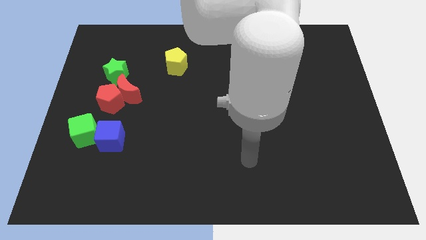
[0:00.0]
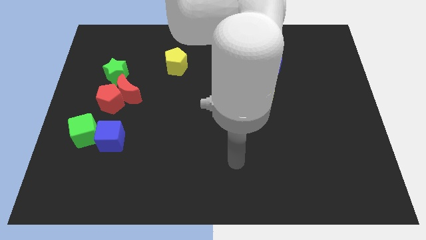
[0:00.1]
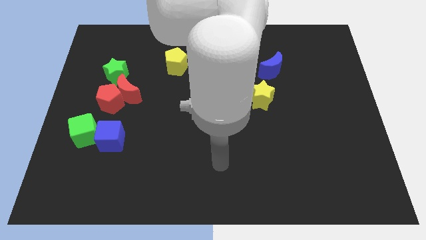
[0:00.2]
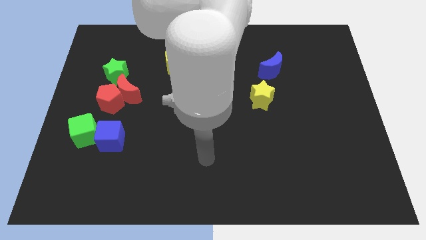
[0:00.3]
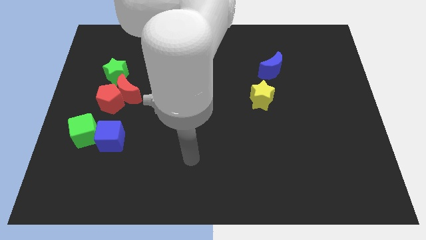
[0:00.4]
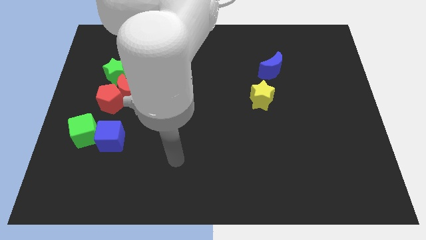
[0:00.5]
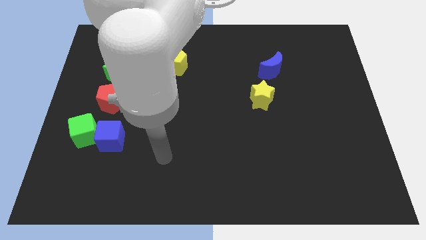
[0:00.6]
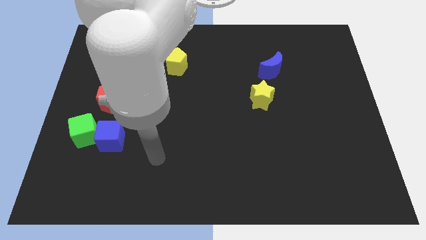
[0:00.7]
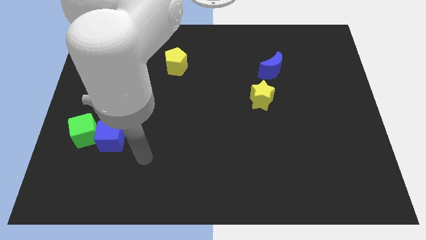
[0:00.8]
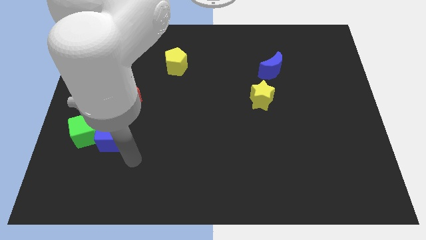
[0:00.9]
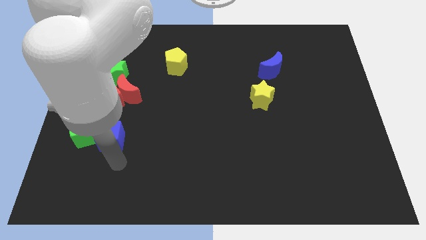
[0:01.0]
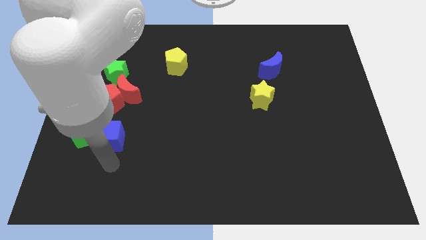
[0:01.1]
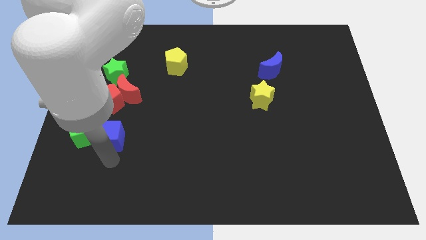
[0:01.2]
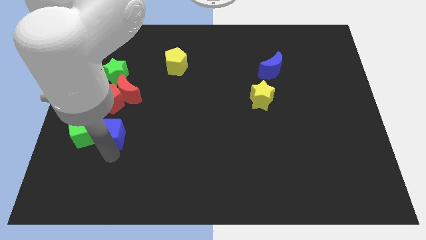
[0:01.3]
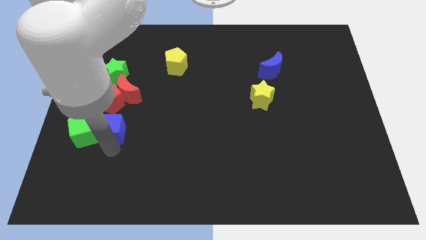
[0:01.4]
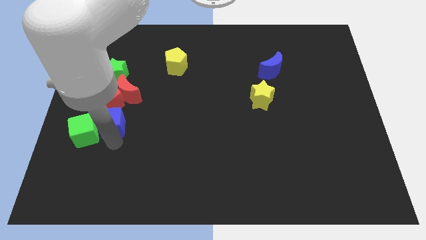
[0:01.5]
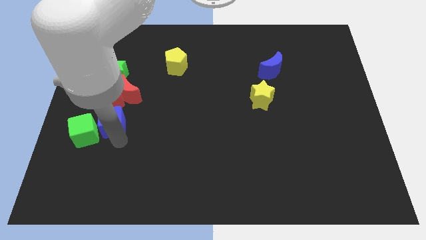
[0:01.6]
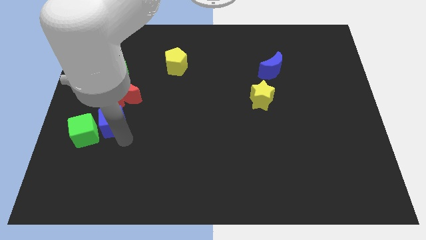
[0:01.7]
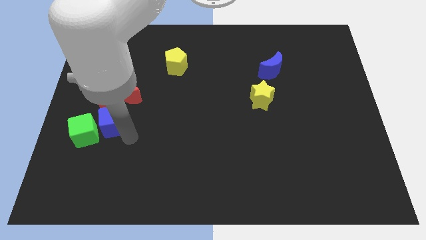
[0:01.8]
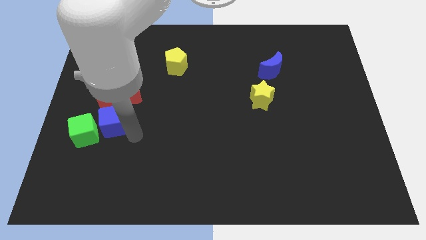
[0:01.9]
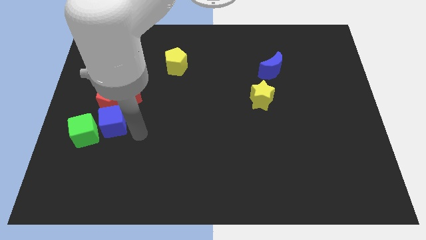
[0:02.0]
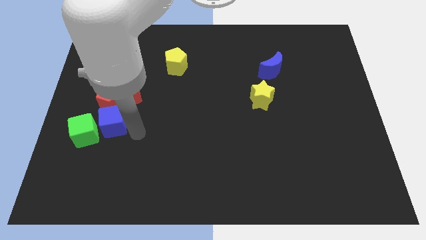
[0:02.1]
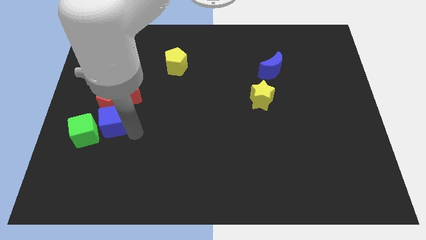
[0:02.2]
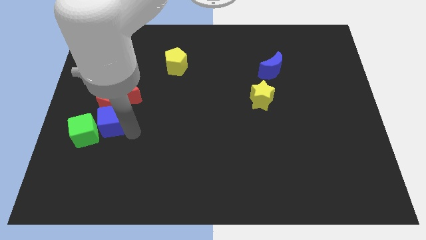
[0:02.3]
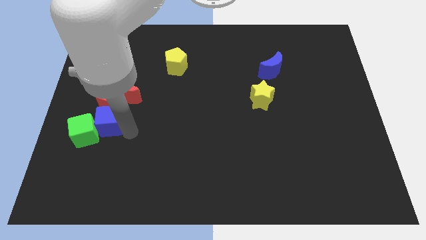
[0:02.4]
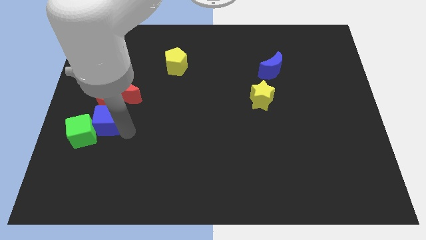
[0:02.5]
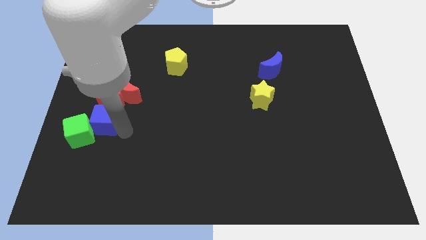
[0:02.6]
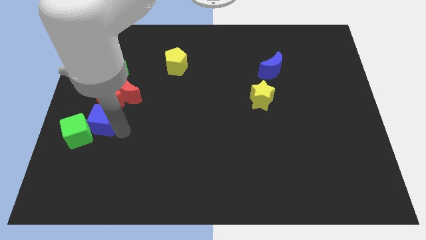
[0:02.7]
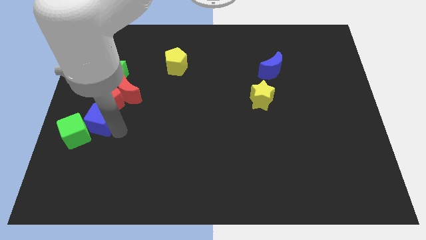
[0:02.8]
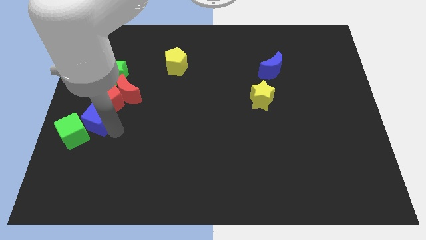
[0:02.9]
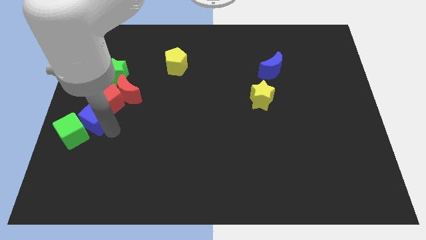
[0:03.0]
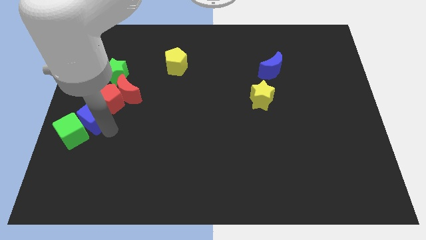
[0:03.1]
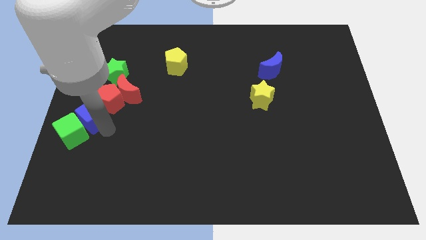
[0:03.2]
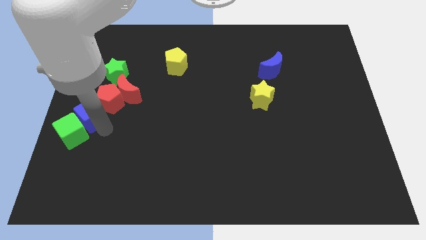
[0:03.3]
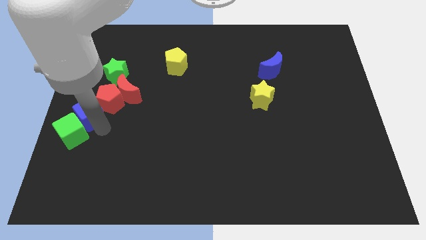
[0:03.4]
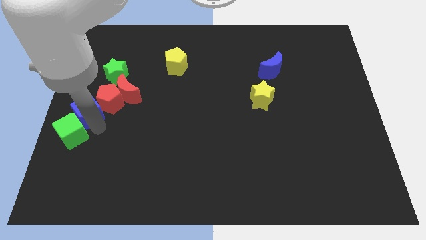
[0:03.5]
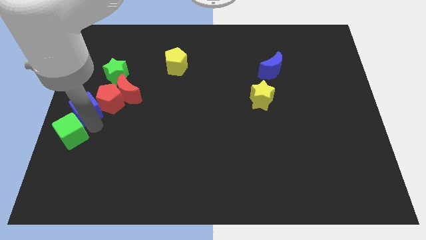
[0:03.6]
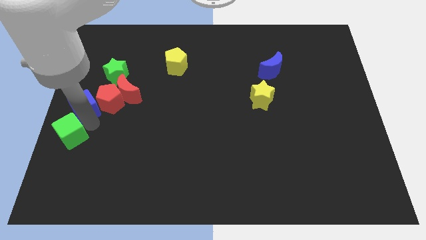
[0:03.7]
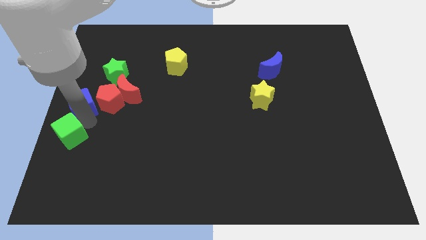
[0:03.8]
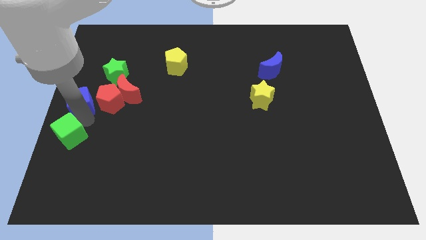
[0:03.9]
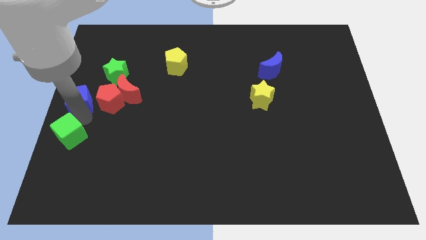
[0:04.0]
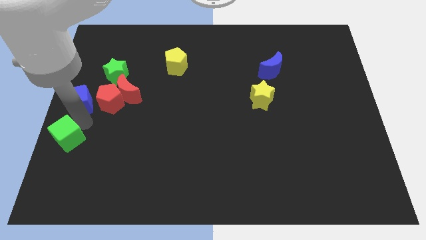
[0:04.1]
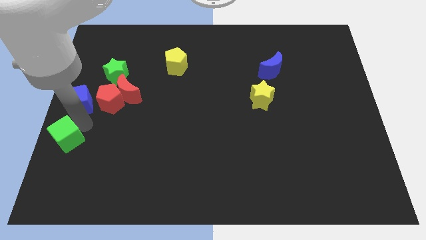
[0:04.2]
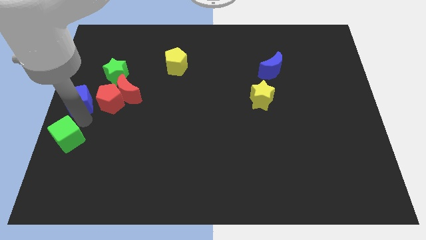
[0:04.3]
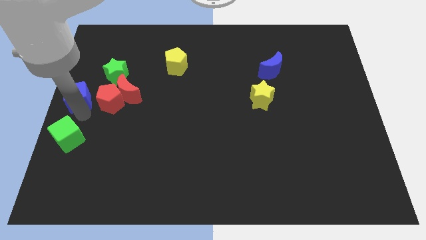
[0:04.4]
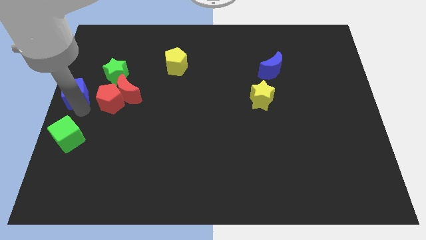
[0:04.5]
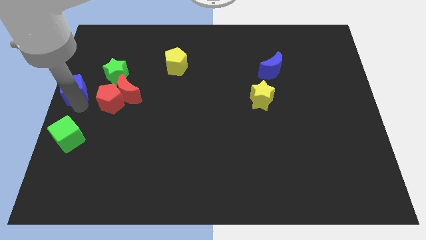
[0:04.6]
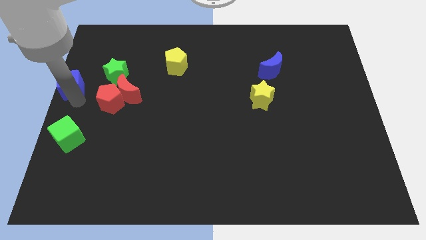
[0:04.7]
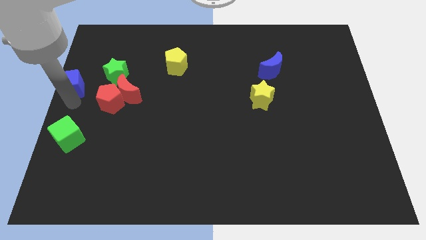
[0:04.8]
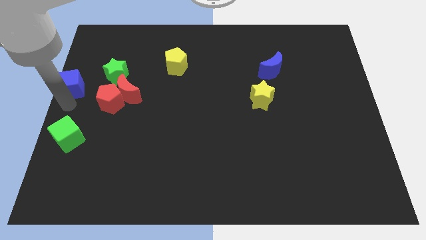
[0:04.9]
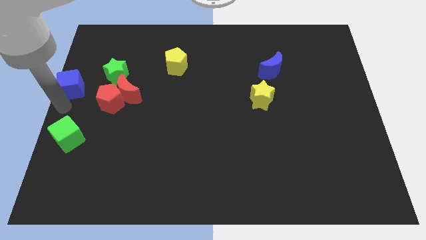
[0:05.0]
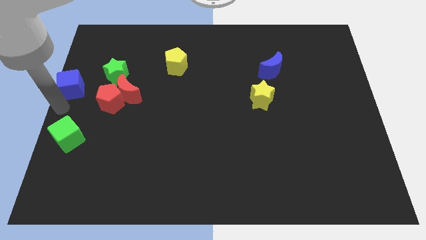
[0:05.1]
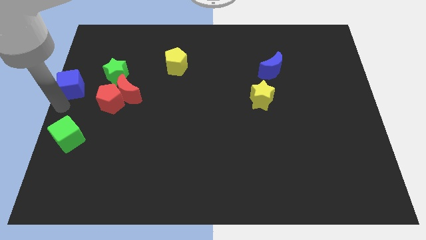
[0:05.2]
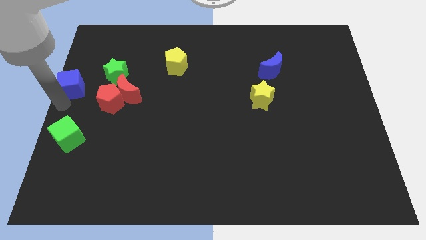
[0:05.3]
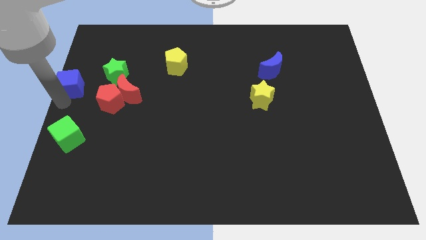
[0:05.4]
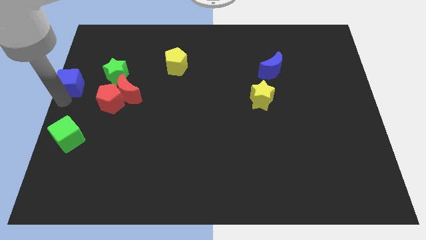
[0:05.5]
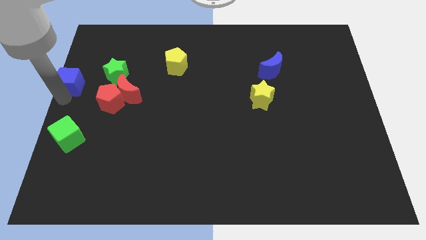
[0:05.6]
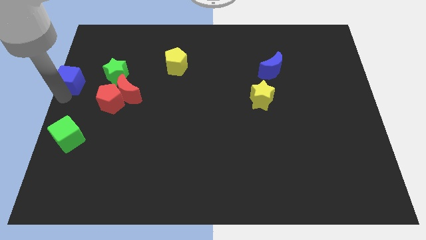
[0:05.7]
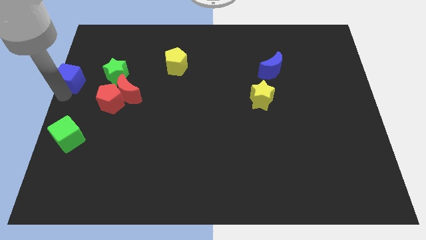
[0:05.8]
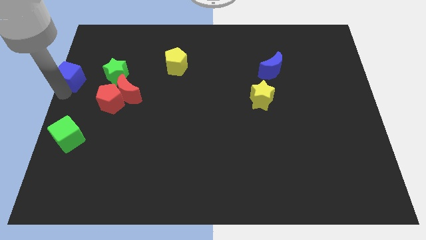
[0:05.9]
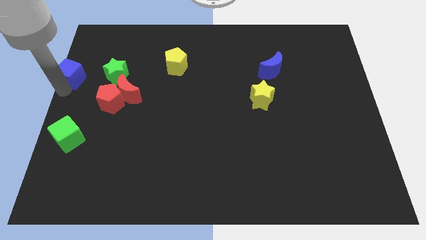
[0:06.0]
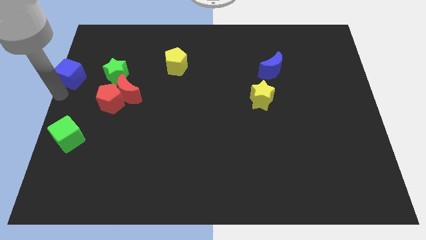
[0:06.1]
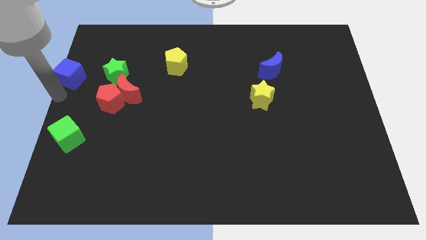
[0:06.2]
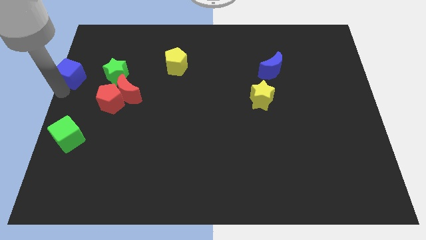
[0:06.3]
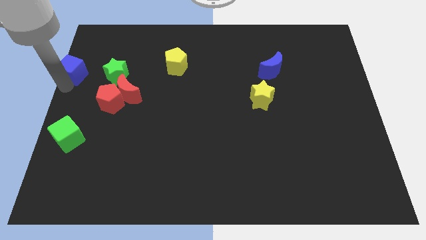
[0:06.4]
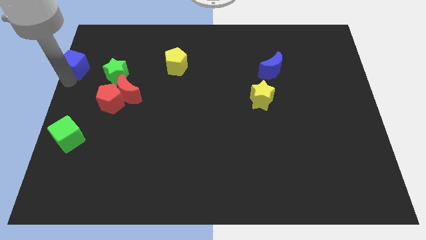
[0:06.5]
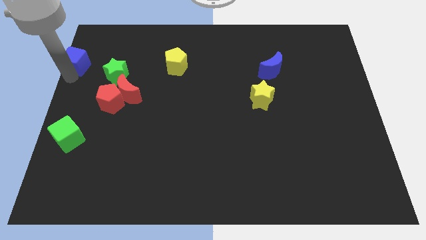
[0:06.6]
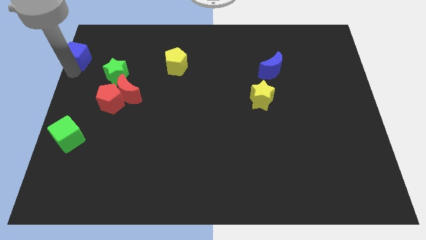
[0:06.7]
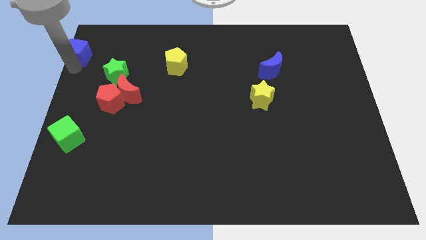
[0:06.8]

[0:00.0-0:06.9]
move the blue cube to the top left of the board
